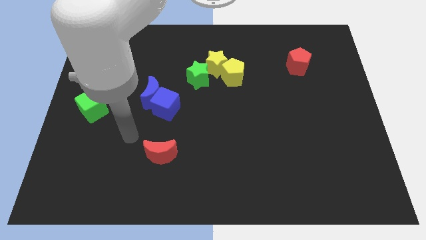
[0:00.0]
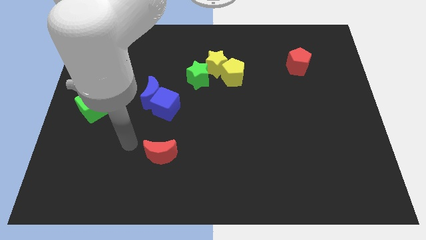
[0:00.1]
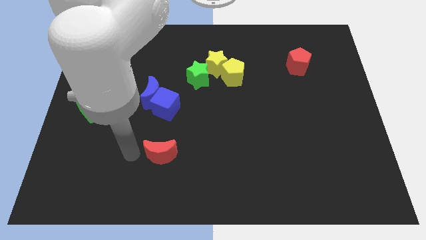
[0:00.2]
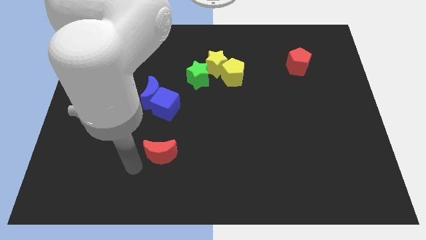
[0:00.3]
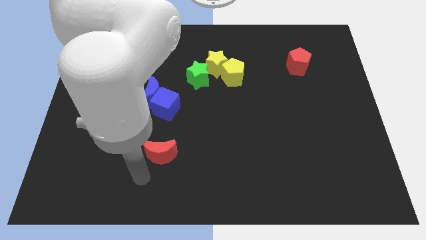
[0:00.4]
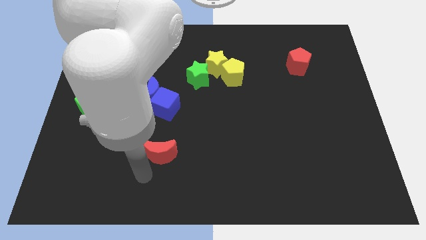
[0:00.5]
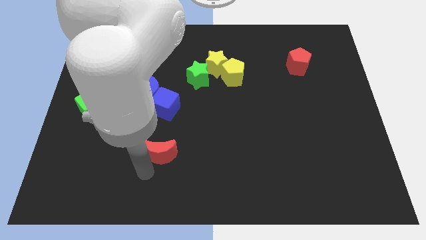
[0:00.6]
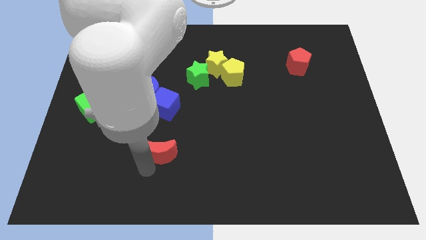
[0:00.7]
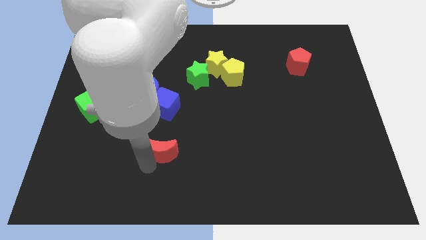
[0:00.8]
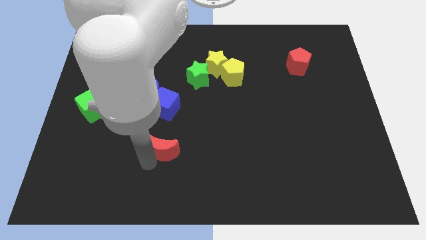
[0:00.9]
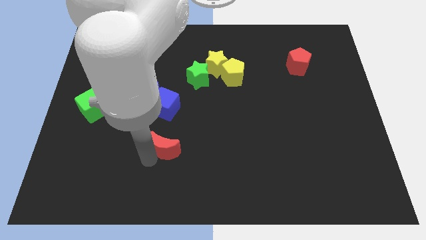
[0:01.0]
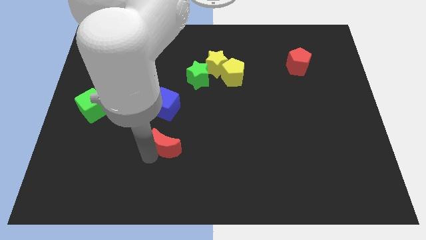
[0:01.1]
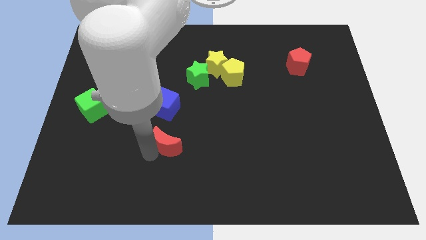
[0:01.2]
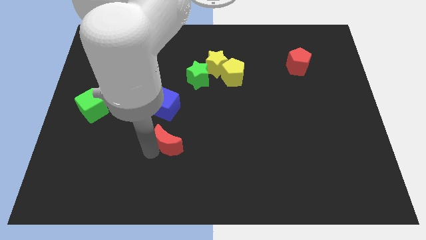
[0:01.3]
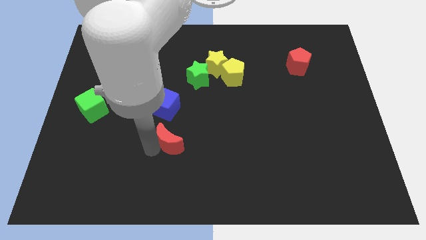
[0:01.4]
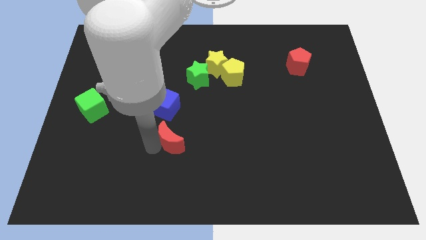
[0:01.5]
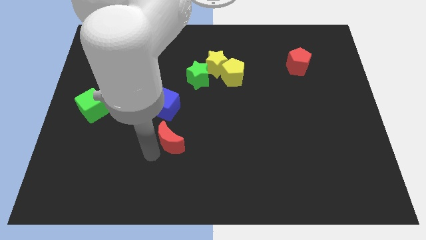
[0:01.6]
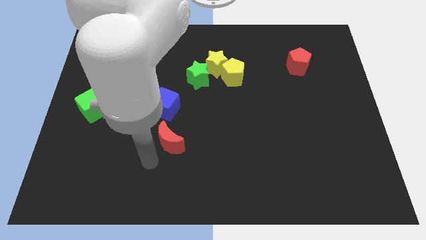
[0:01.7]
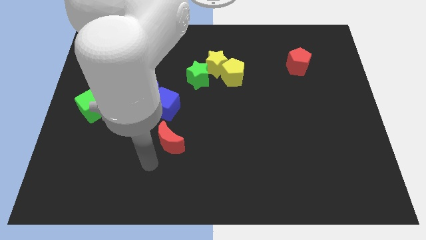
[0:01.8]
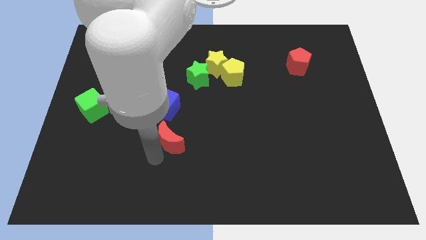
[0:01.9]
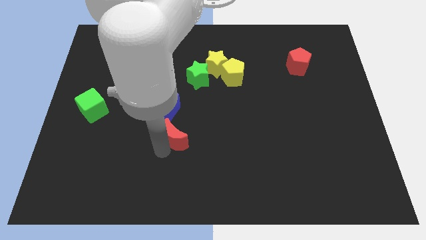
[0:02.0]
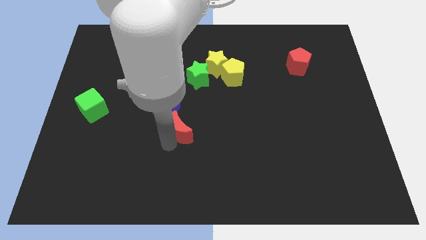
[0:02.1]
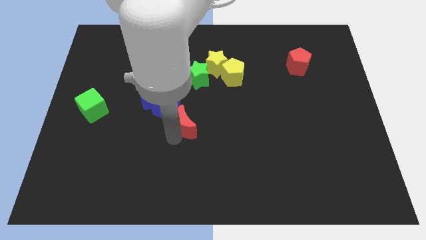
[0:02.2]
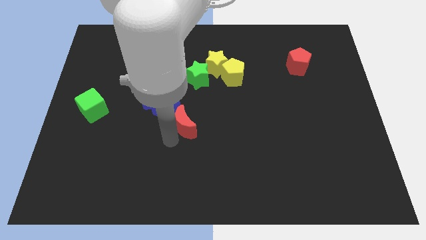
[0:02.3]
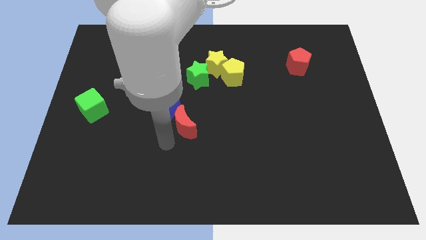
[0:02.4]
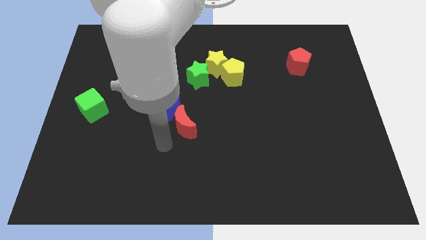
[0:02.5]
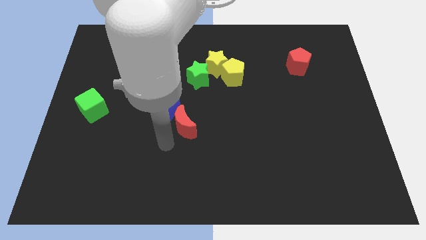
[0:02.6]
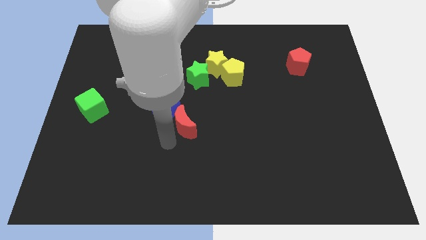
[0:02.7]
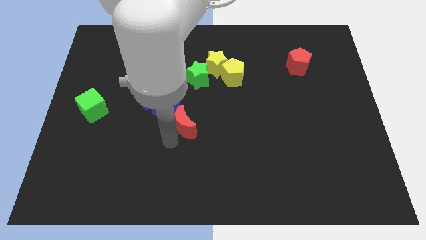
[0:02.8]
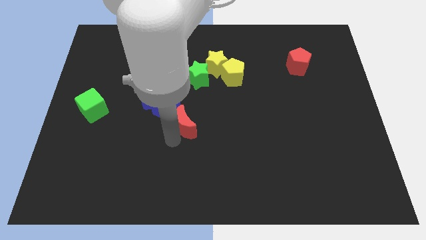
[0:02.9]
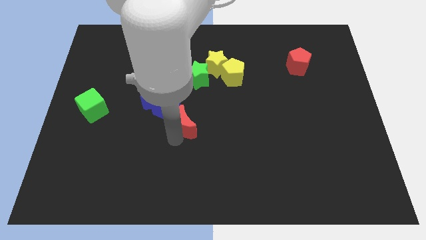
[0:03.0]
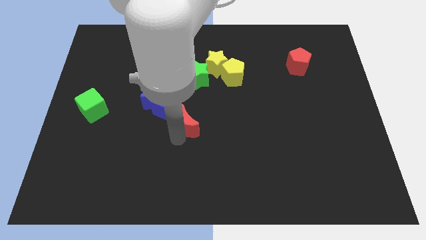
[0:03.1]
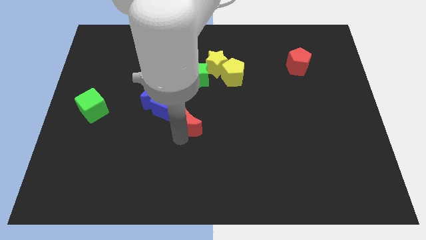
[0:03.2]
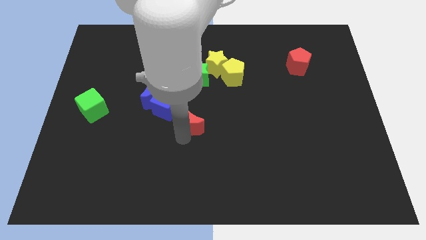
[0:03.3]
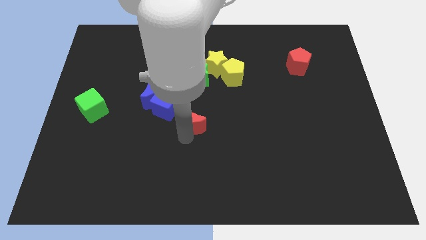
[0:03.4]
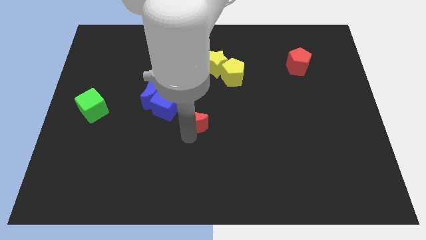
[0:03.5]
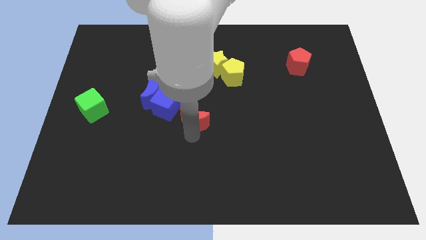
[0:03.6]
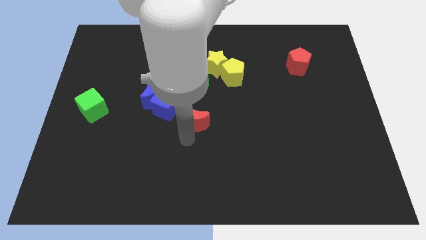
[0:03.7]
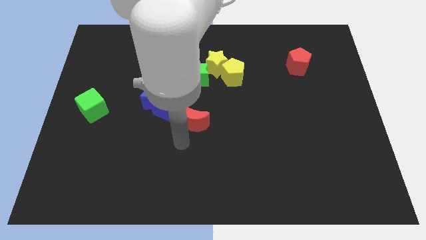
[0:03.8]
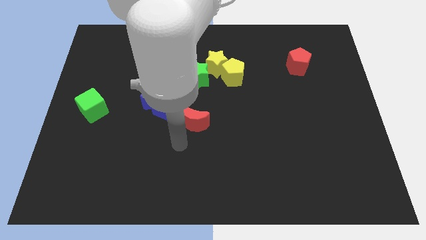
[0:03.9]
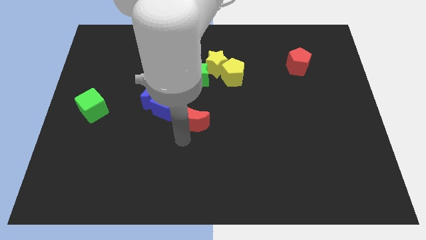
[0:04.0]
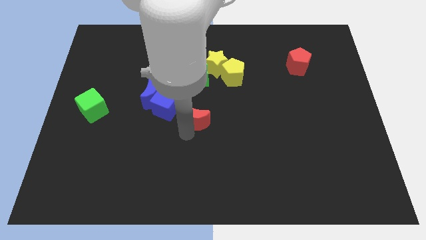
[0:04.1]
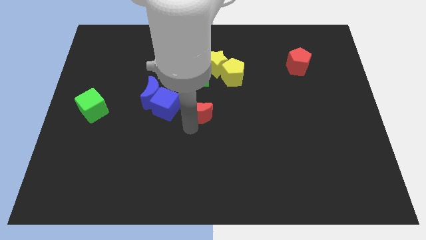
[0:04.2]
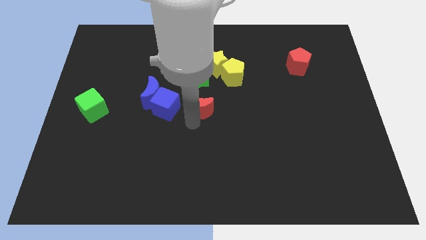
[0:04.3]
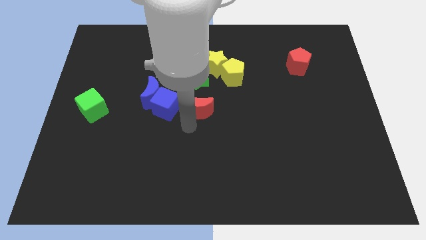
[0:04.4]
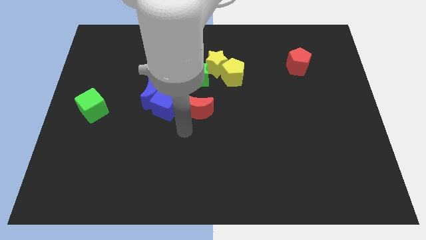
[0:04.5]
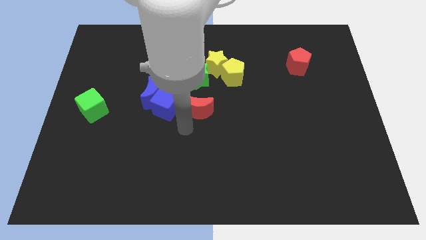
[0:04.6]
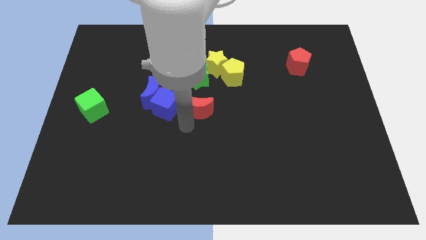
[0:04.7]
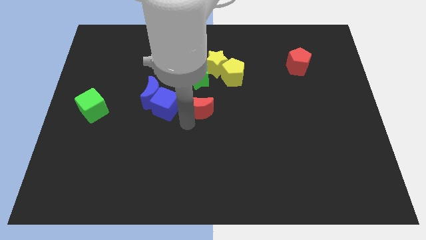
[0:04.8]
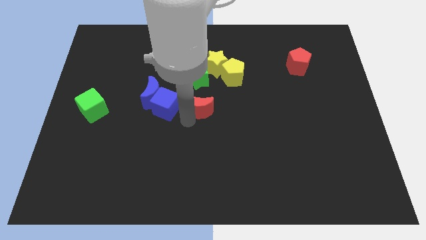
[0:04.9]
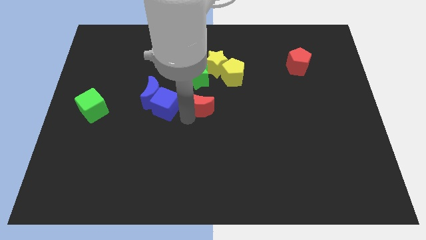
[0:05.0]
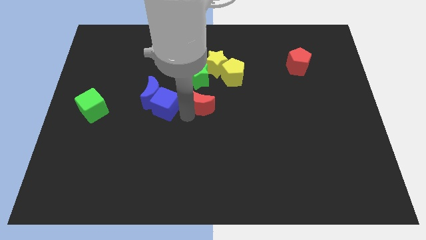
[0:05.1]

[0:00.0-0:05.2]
push the red moon to the bottom left side of the yellow pentagon

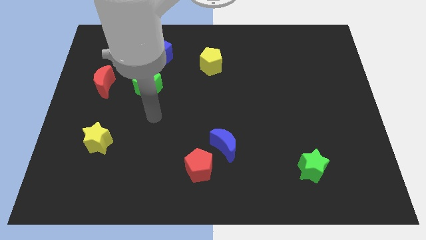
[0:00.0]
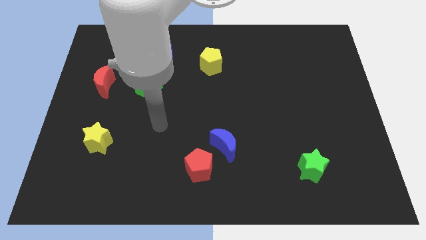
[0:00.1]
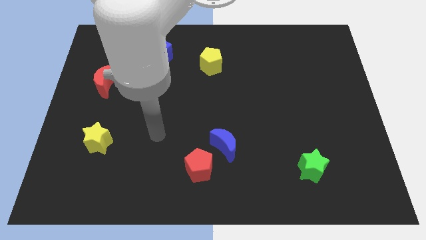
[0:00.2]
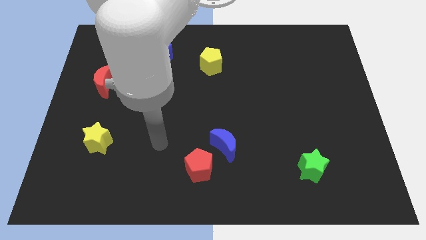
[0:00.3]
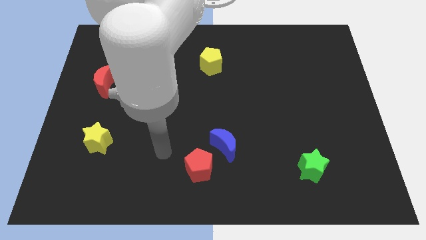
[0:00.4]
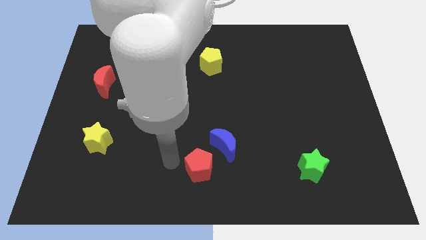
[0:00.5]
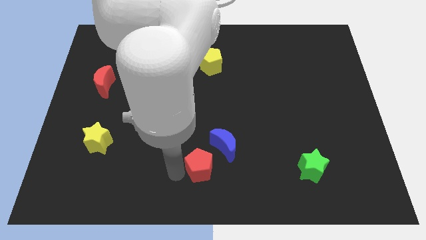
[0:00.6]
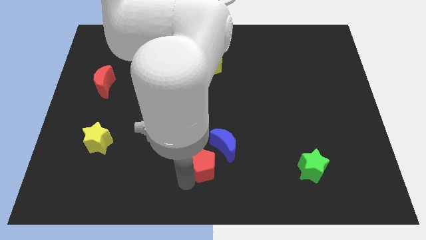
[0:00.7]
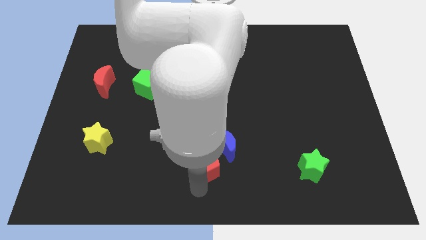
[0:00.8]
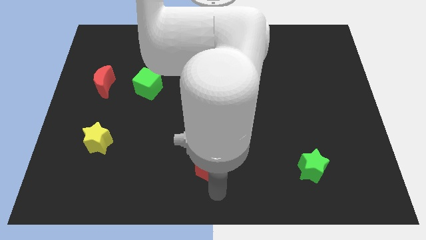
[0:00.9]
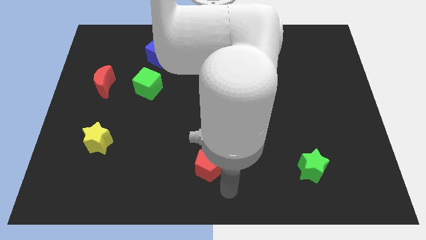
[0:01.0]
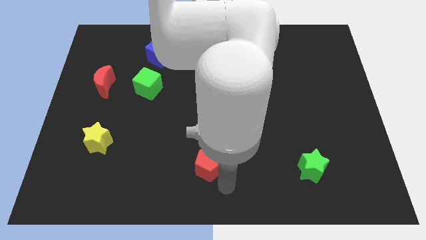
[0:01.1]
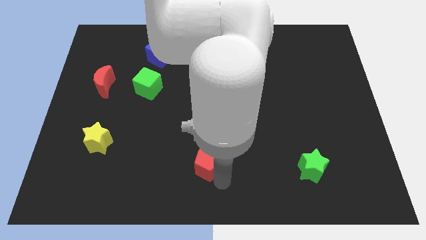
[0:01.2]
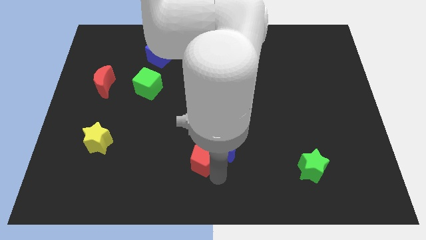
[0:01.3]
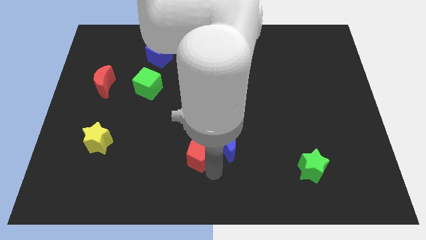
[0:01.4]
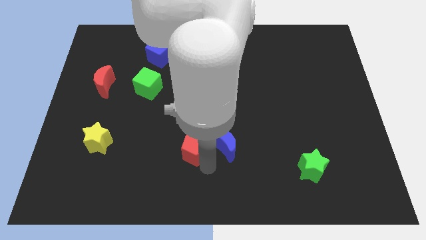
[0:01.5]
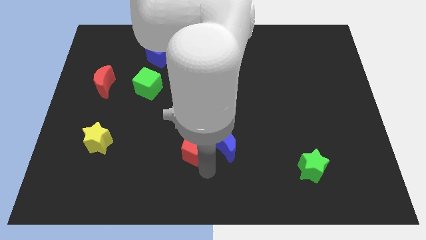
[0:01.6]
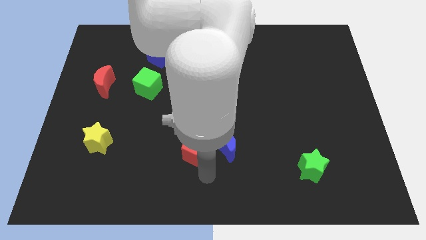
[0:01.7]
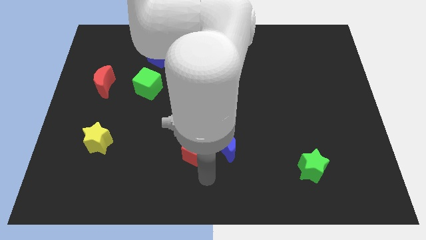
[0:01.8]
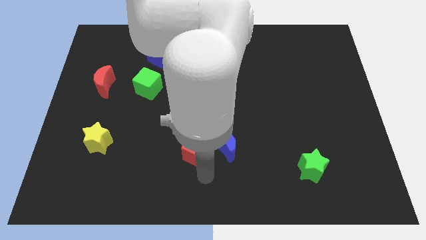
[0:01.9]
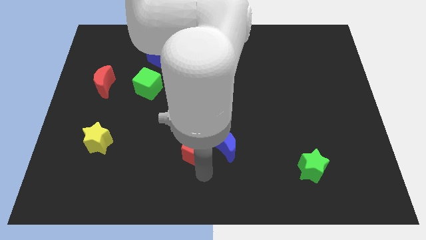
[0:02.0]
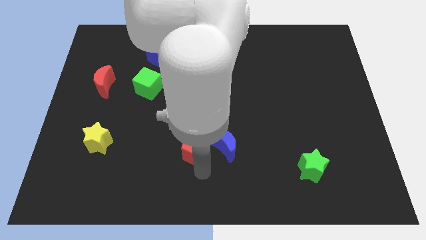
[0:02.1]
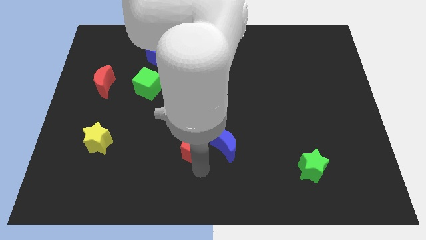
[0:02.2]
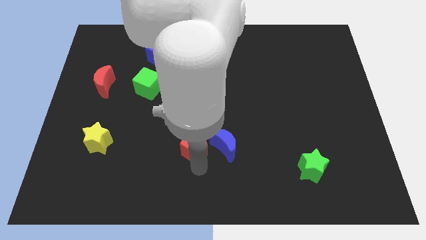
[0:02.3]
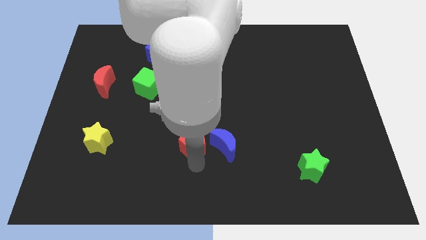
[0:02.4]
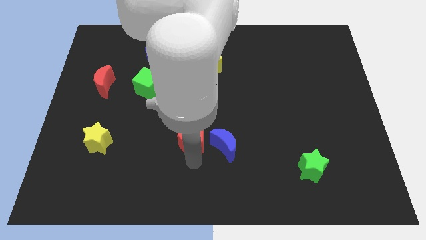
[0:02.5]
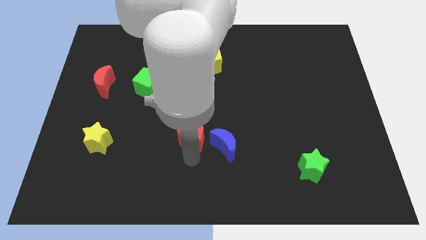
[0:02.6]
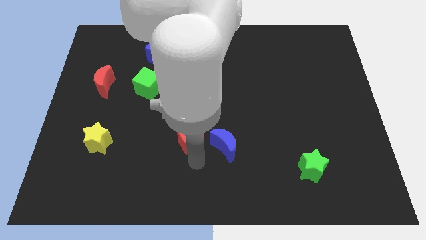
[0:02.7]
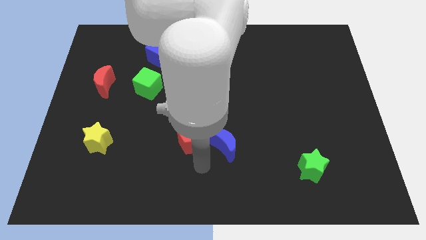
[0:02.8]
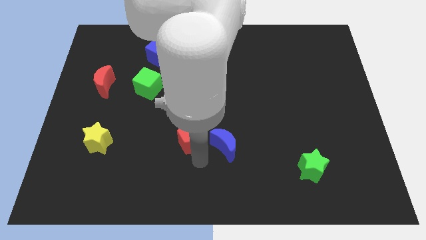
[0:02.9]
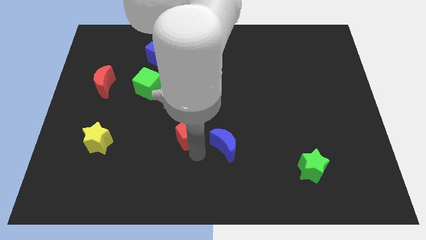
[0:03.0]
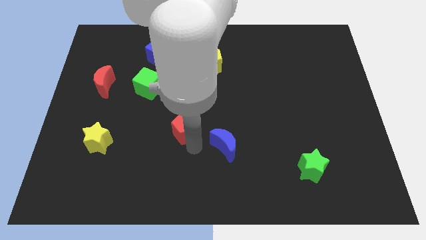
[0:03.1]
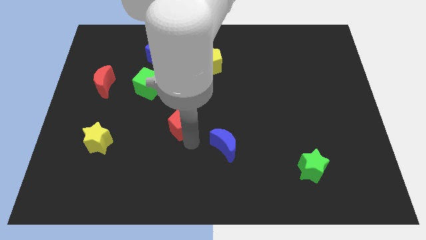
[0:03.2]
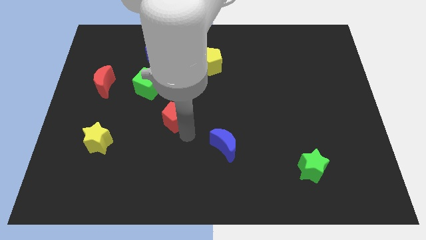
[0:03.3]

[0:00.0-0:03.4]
slide the red pentagon to the bottom right of the green cube

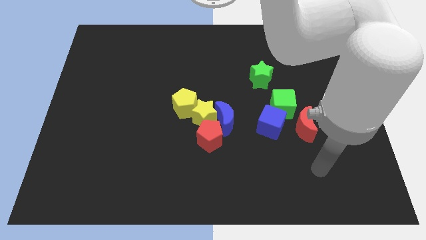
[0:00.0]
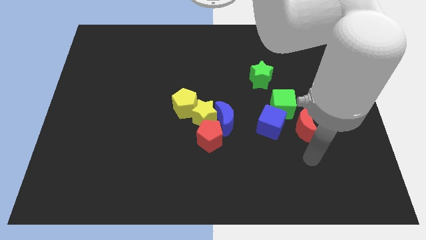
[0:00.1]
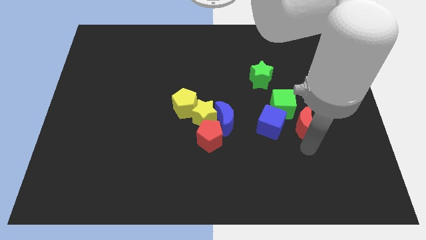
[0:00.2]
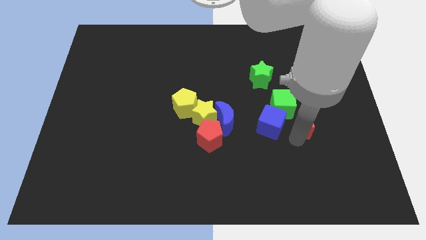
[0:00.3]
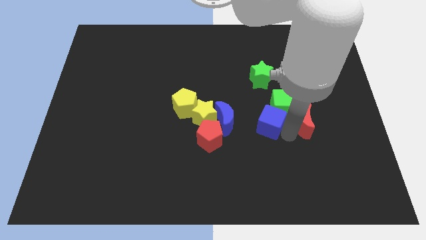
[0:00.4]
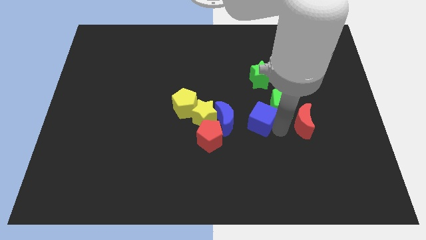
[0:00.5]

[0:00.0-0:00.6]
push the blue cube left of the green cube
